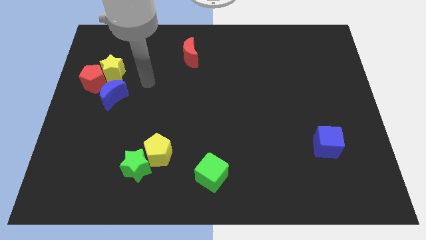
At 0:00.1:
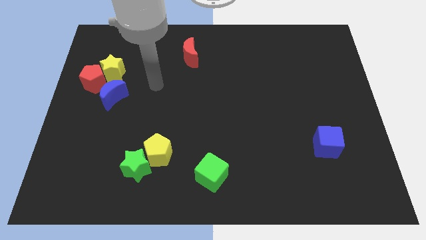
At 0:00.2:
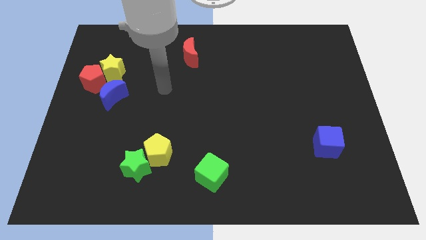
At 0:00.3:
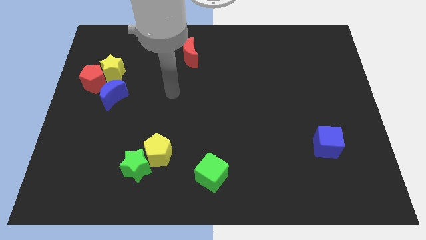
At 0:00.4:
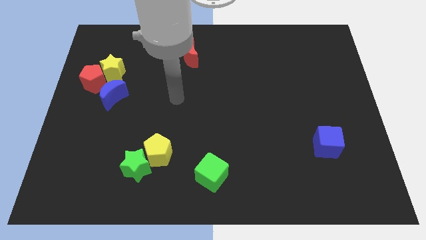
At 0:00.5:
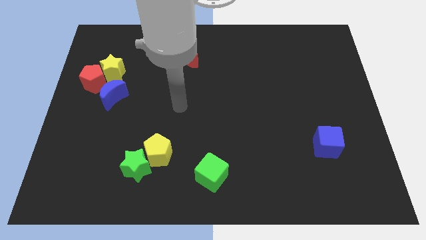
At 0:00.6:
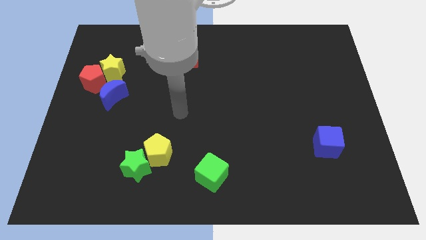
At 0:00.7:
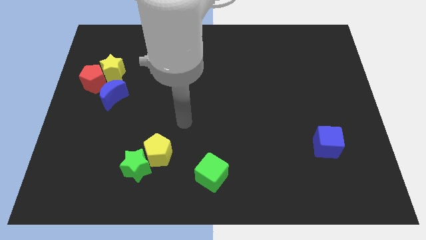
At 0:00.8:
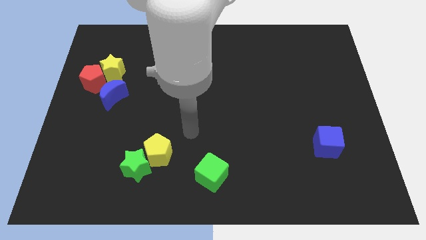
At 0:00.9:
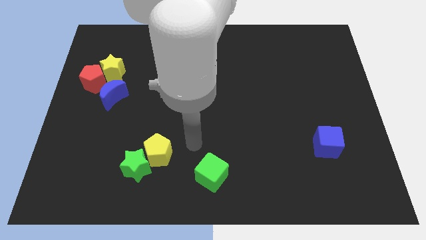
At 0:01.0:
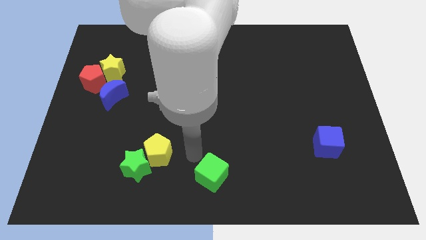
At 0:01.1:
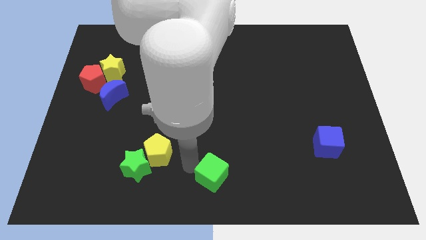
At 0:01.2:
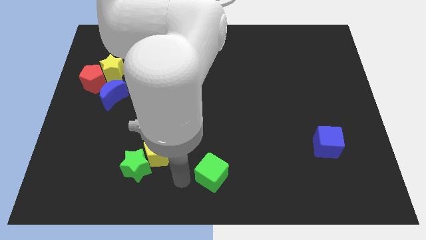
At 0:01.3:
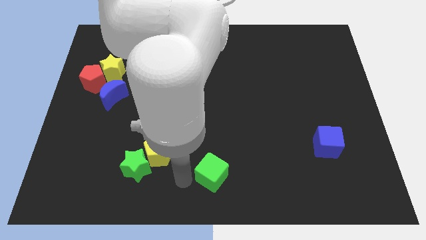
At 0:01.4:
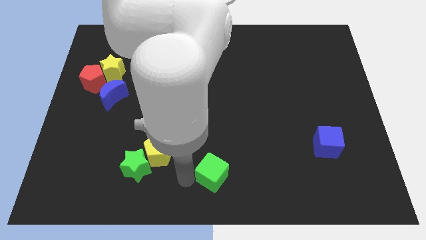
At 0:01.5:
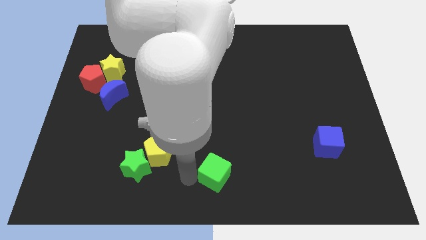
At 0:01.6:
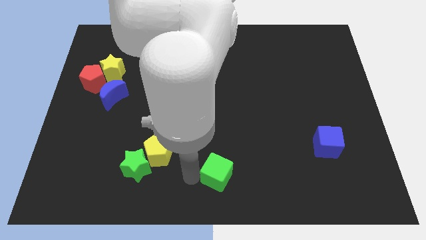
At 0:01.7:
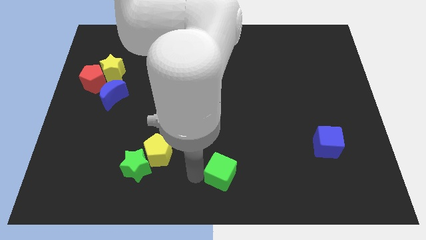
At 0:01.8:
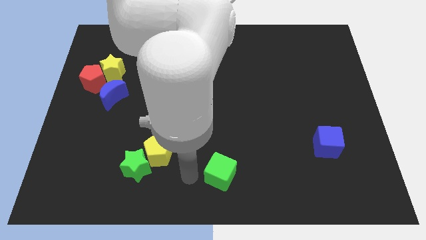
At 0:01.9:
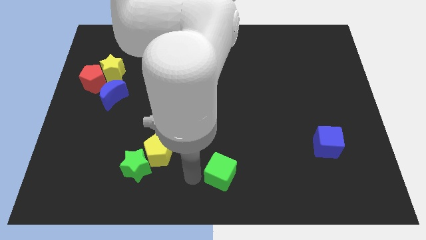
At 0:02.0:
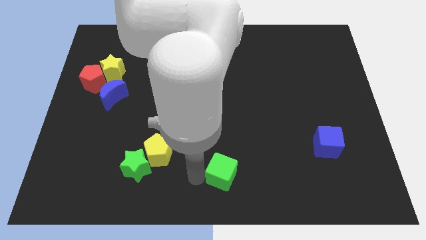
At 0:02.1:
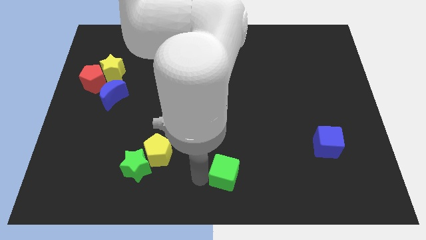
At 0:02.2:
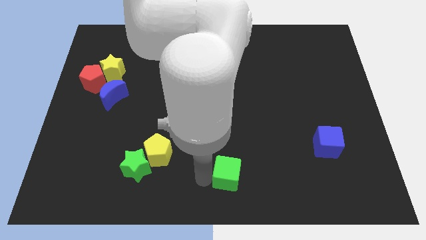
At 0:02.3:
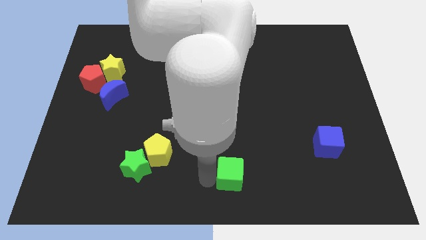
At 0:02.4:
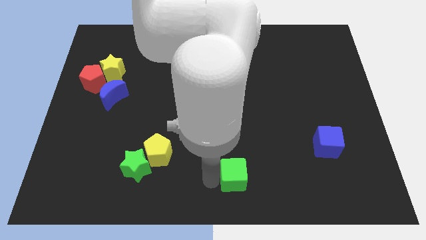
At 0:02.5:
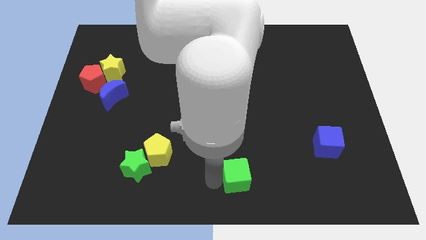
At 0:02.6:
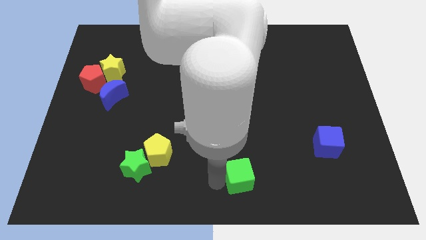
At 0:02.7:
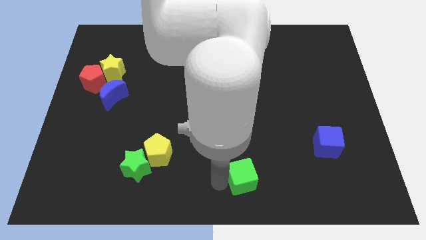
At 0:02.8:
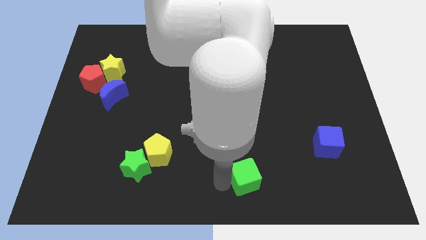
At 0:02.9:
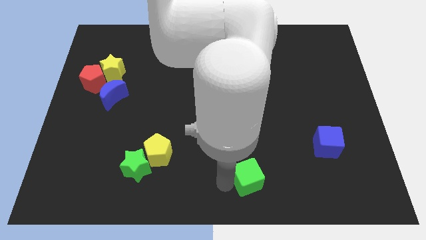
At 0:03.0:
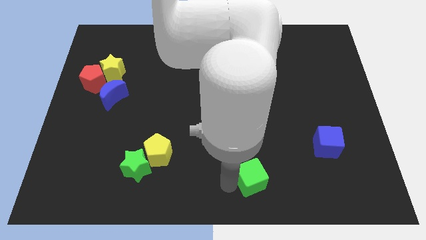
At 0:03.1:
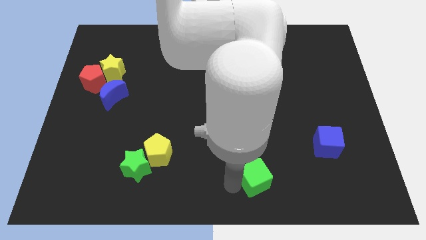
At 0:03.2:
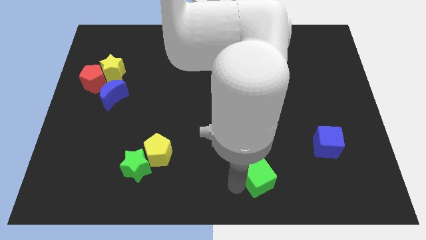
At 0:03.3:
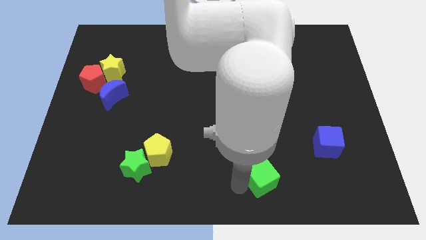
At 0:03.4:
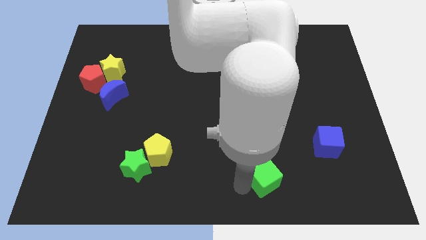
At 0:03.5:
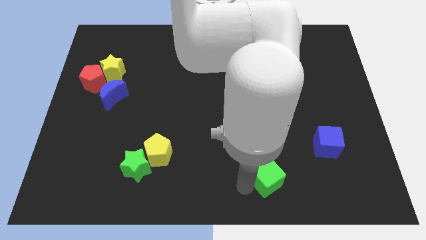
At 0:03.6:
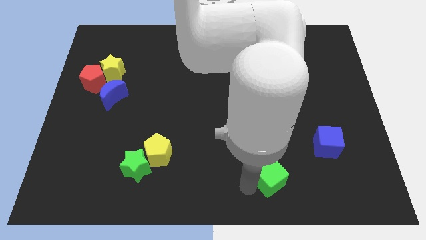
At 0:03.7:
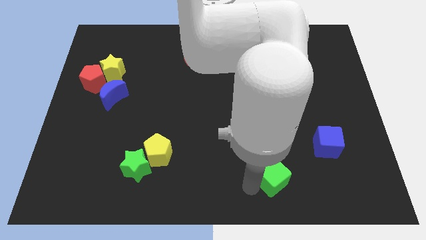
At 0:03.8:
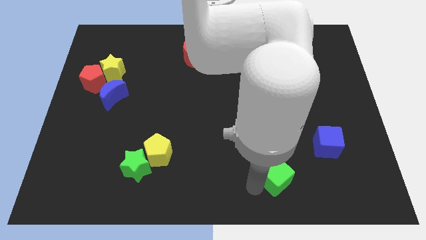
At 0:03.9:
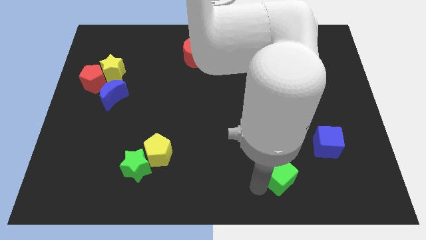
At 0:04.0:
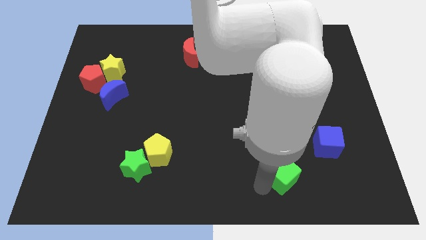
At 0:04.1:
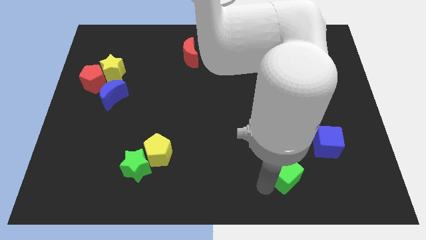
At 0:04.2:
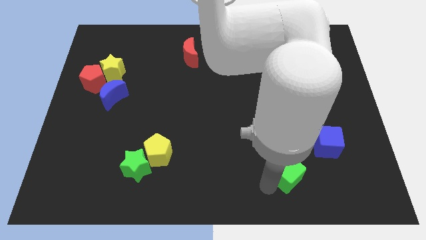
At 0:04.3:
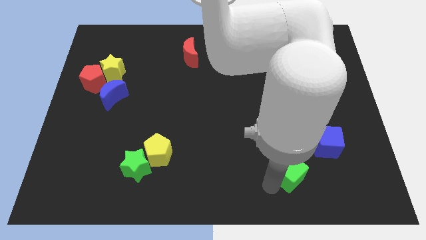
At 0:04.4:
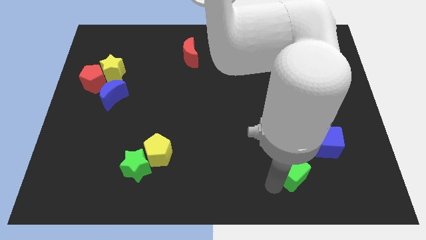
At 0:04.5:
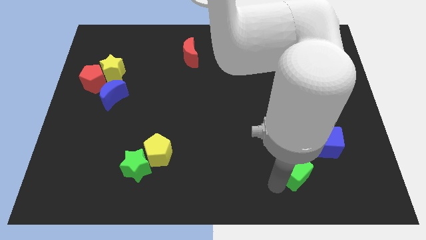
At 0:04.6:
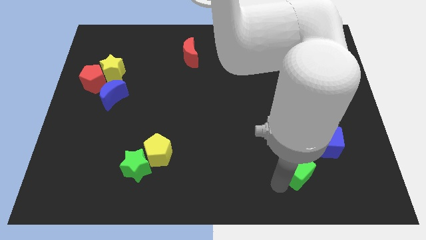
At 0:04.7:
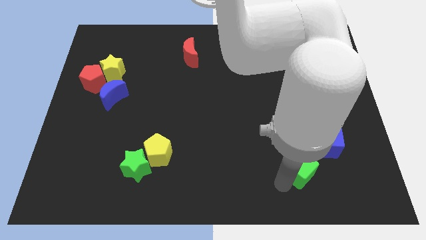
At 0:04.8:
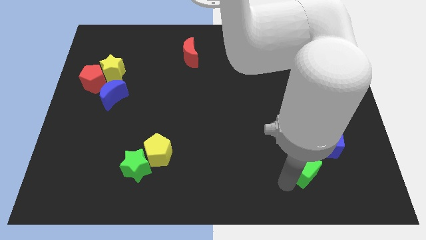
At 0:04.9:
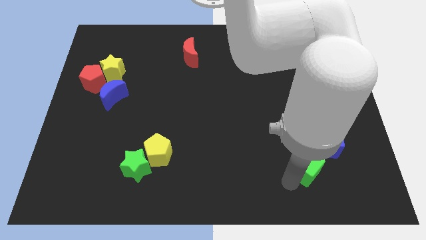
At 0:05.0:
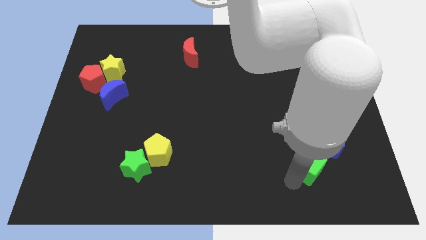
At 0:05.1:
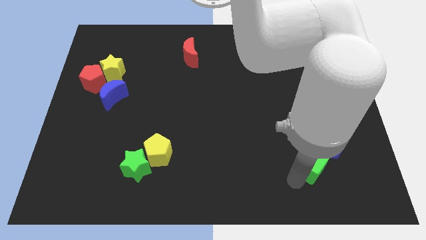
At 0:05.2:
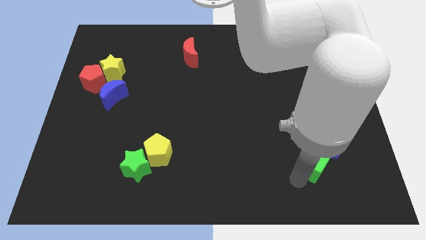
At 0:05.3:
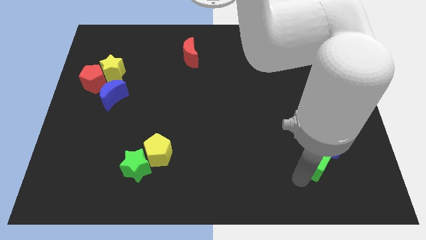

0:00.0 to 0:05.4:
slide the green cube close to the blue cube

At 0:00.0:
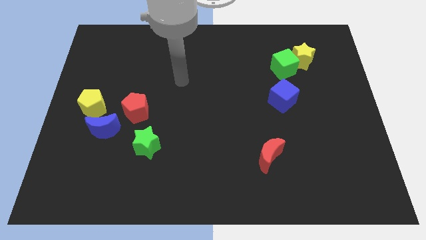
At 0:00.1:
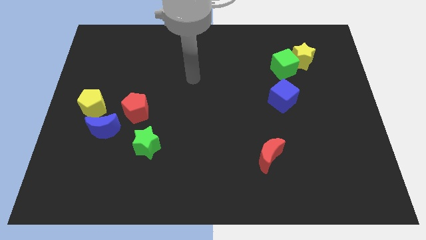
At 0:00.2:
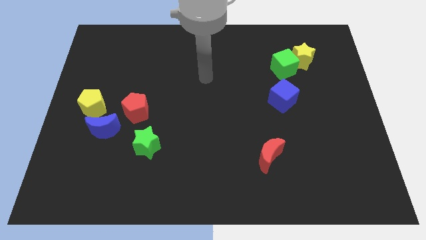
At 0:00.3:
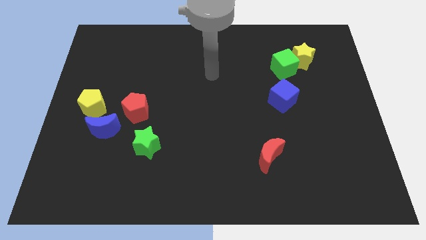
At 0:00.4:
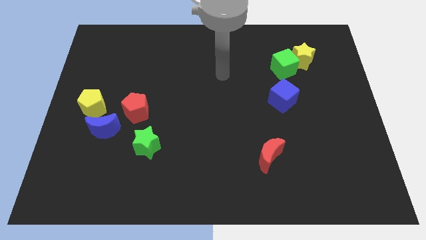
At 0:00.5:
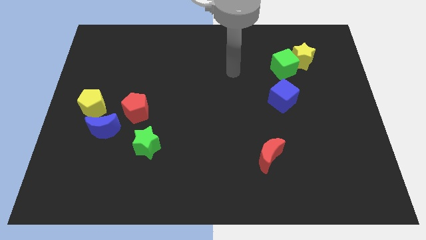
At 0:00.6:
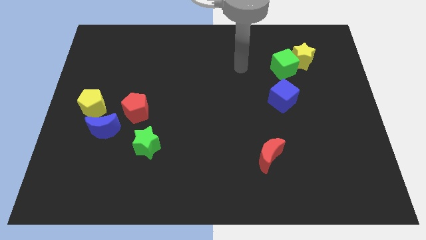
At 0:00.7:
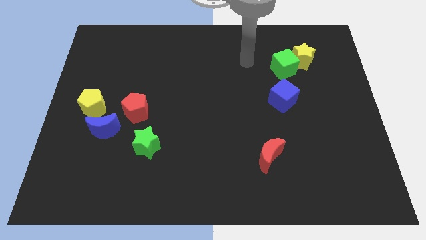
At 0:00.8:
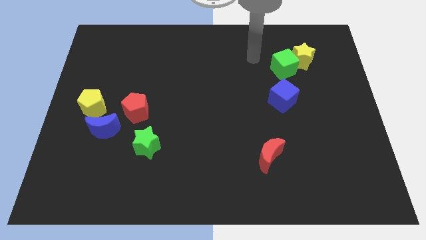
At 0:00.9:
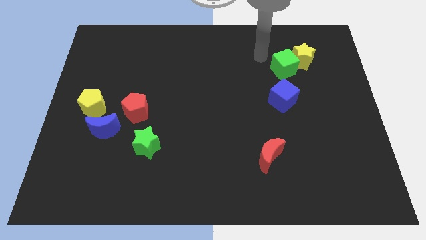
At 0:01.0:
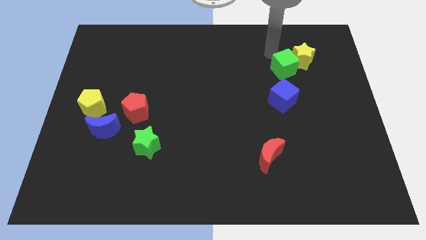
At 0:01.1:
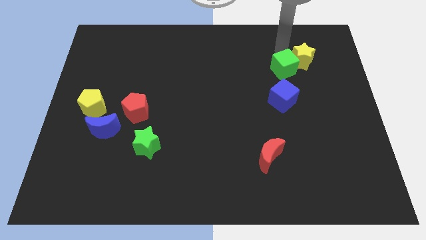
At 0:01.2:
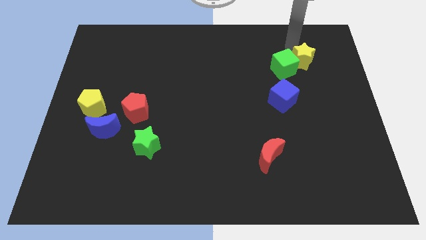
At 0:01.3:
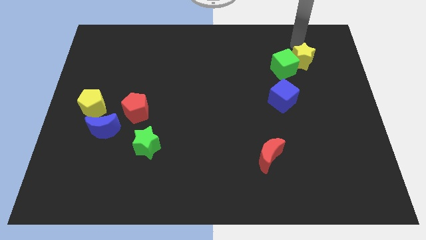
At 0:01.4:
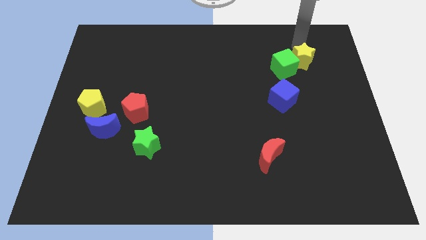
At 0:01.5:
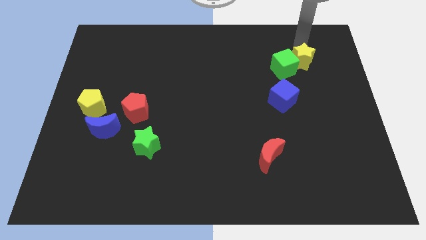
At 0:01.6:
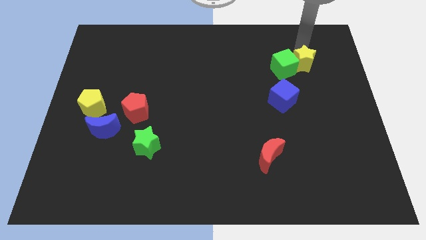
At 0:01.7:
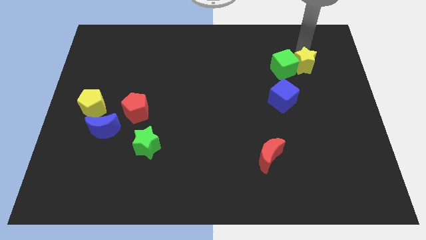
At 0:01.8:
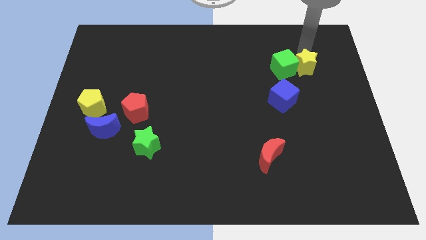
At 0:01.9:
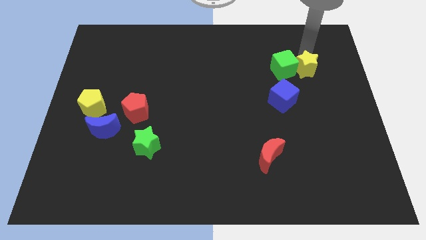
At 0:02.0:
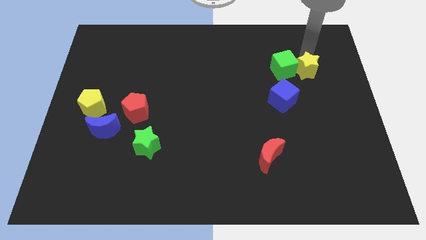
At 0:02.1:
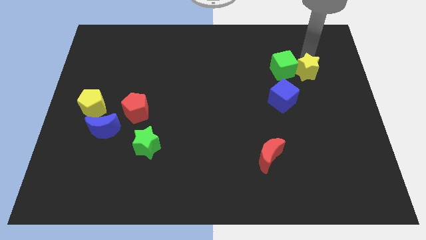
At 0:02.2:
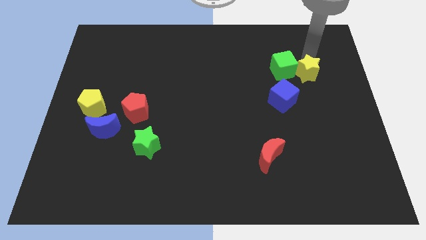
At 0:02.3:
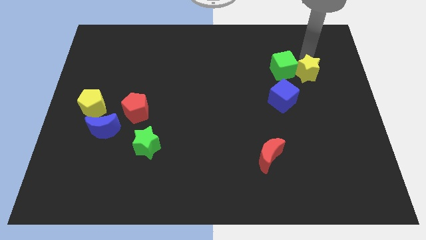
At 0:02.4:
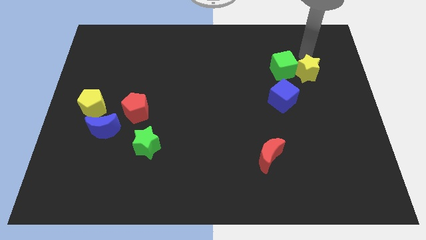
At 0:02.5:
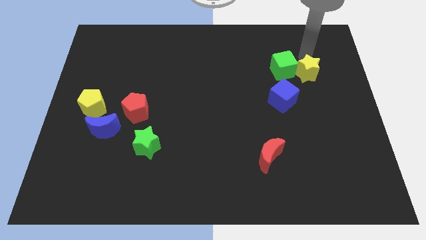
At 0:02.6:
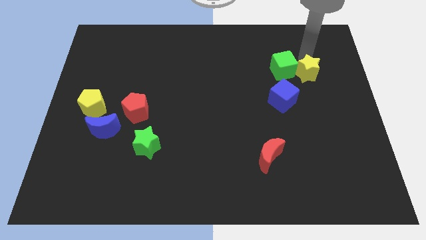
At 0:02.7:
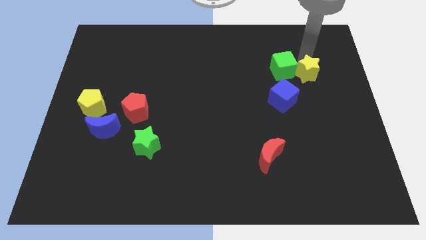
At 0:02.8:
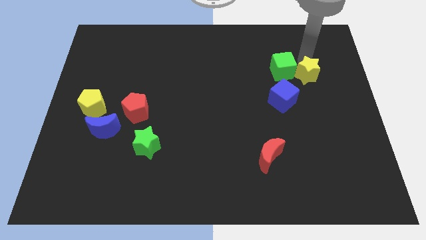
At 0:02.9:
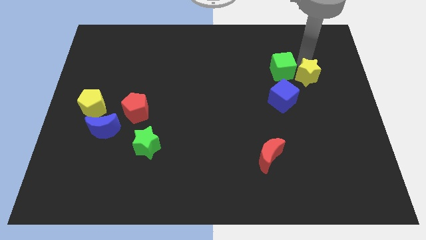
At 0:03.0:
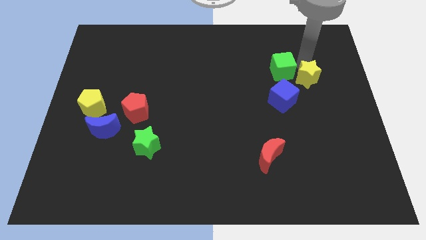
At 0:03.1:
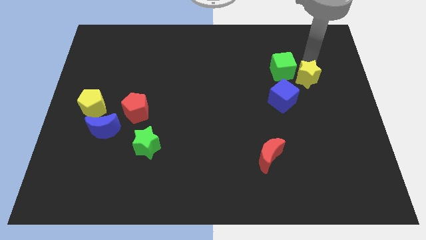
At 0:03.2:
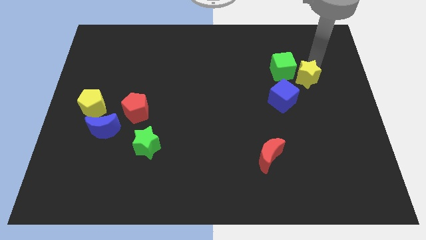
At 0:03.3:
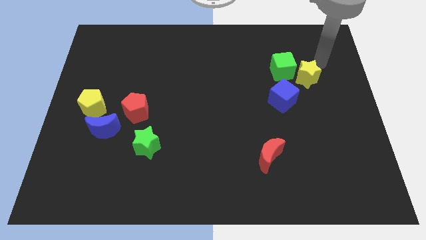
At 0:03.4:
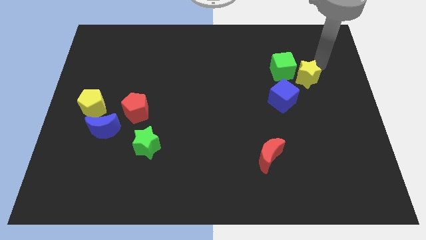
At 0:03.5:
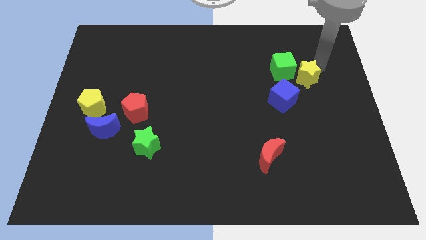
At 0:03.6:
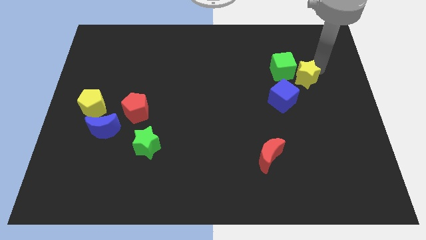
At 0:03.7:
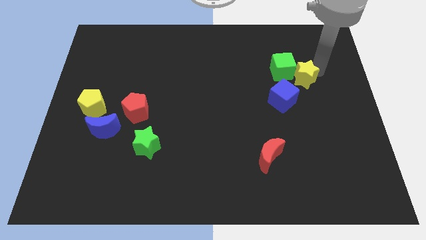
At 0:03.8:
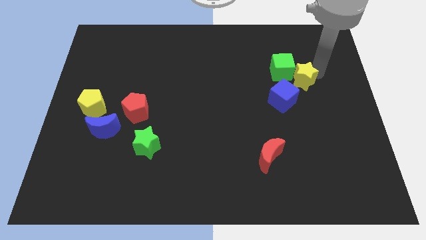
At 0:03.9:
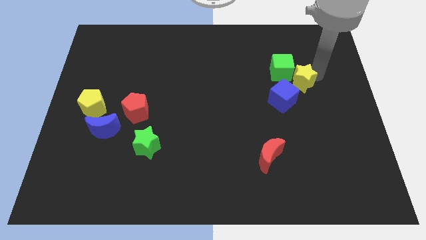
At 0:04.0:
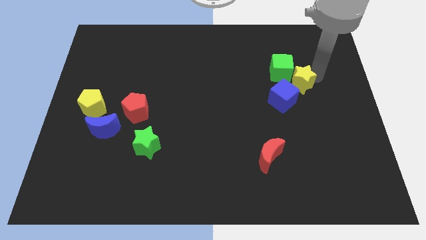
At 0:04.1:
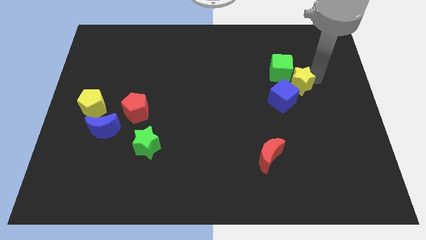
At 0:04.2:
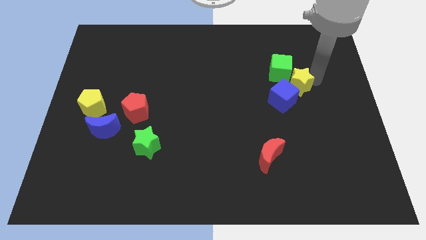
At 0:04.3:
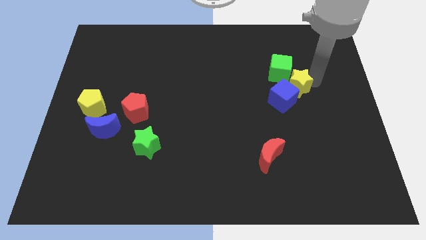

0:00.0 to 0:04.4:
slide the yellow star towards the blue cube
